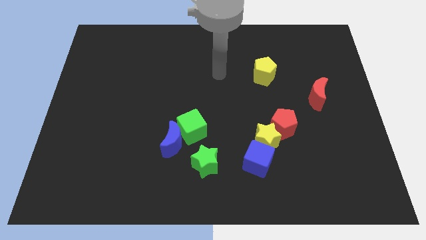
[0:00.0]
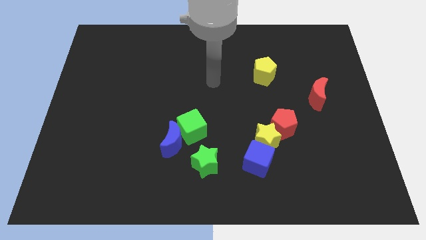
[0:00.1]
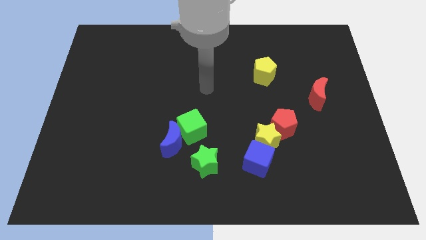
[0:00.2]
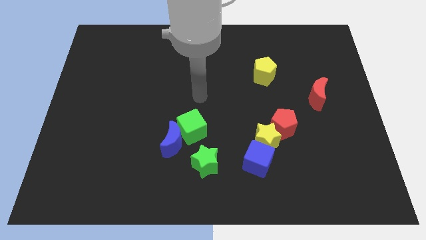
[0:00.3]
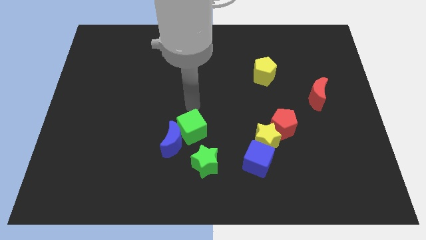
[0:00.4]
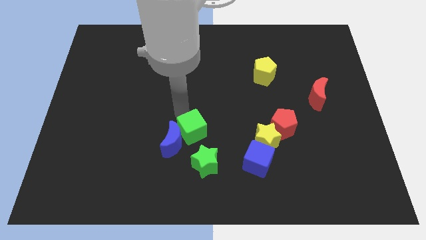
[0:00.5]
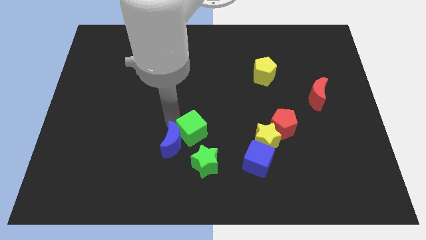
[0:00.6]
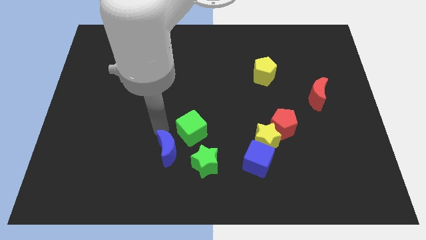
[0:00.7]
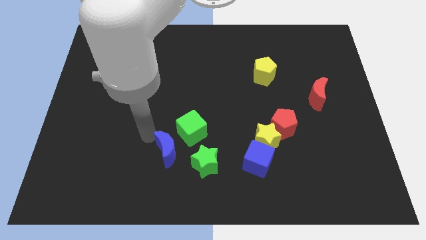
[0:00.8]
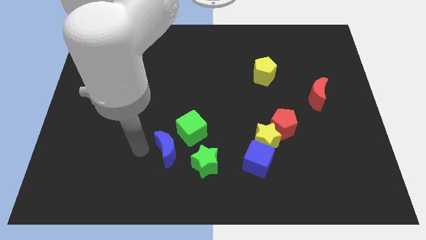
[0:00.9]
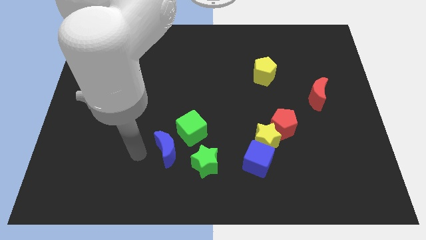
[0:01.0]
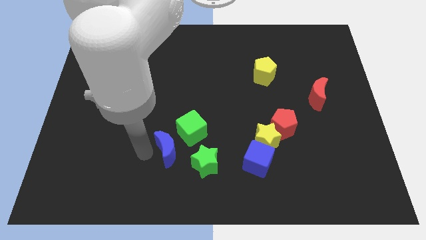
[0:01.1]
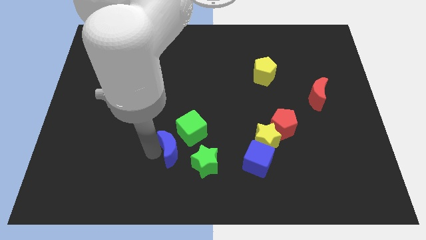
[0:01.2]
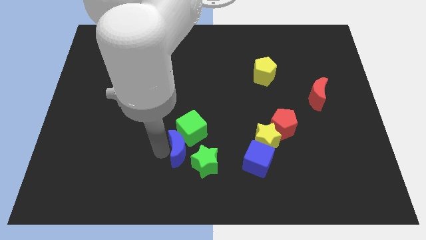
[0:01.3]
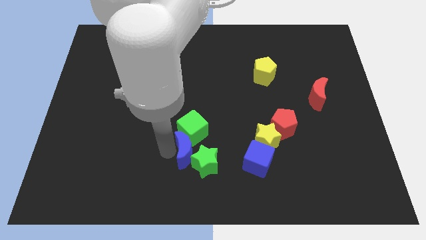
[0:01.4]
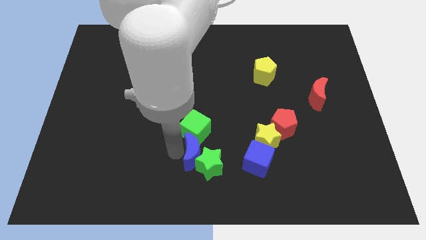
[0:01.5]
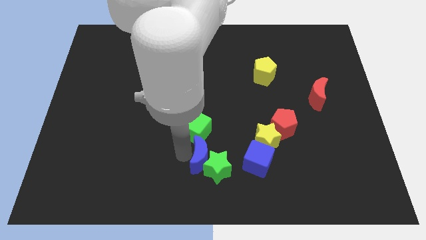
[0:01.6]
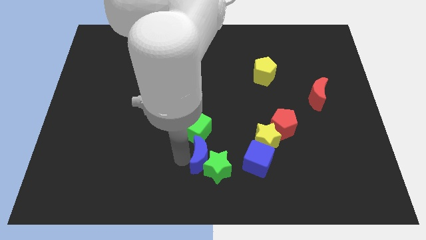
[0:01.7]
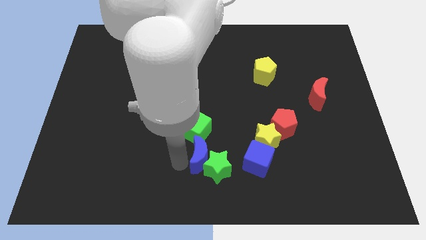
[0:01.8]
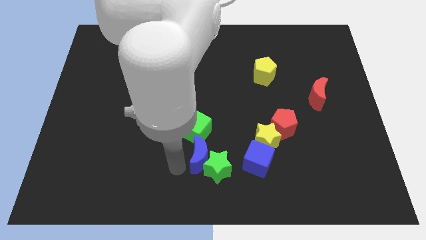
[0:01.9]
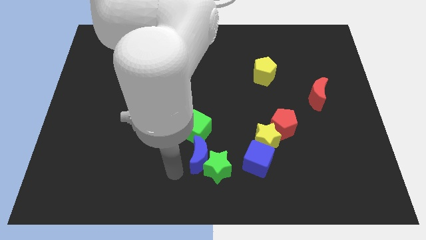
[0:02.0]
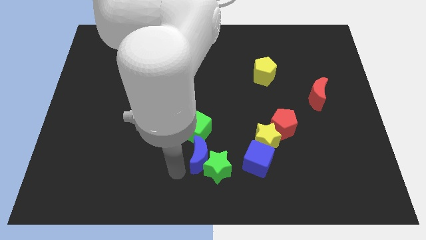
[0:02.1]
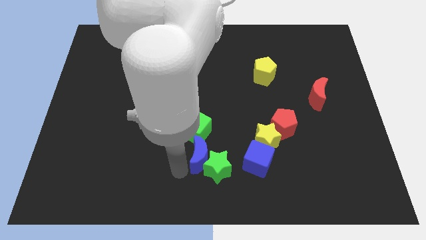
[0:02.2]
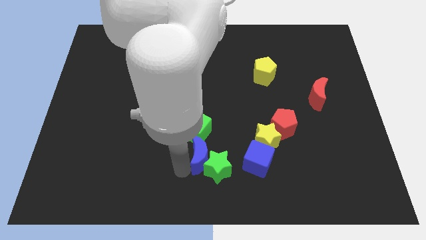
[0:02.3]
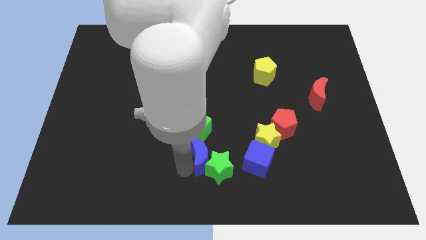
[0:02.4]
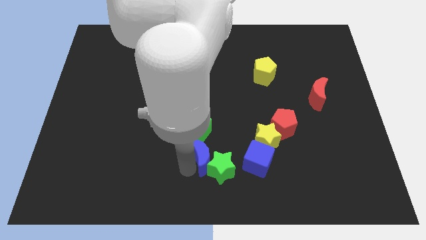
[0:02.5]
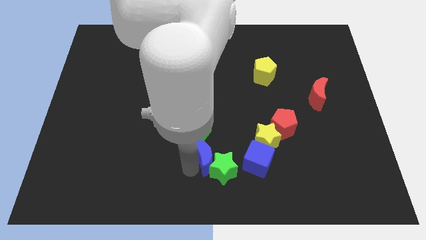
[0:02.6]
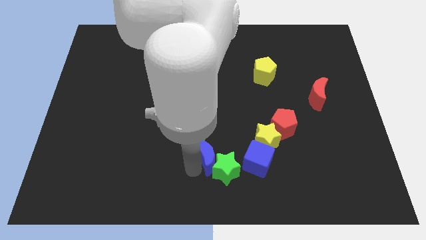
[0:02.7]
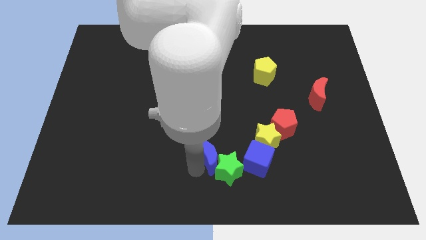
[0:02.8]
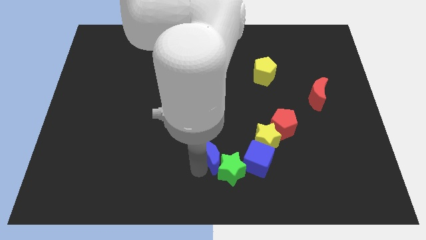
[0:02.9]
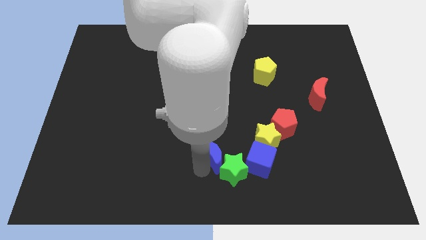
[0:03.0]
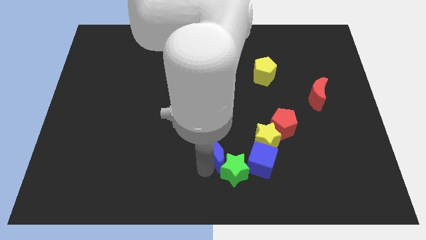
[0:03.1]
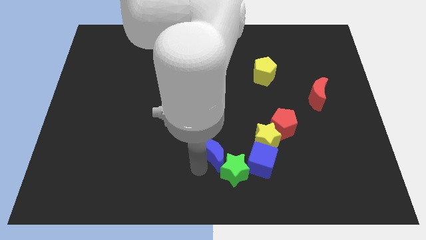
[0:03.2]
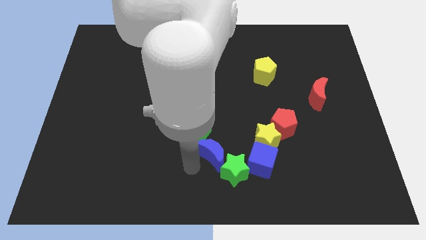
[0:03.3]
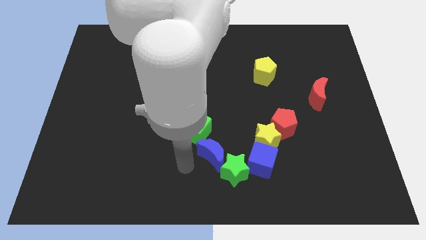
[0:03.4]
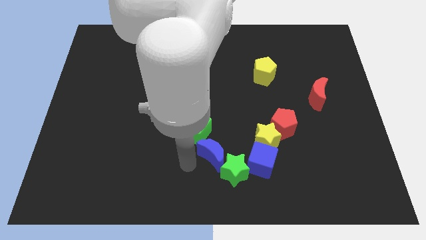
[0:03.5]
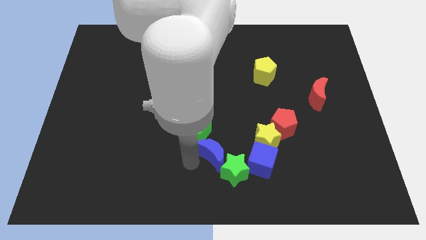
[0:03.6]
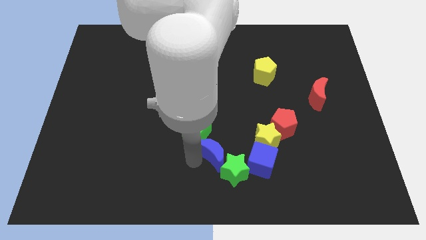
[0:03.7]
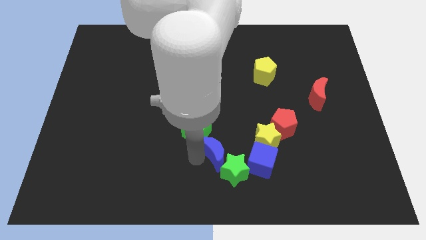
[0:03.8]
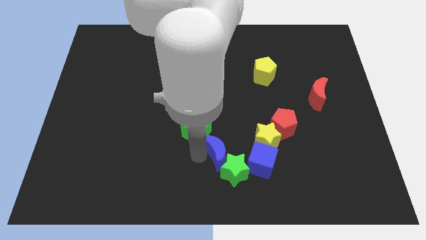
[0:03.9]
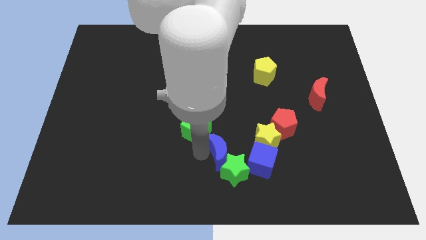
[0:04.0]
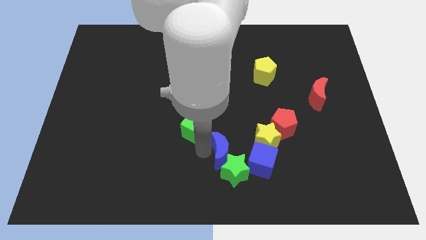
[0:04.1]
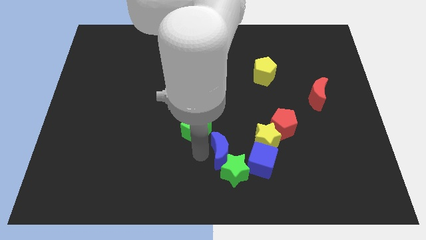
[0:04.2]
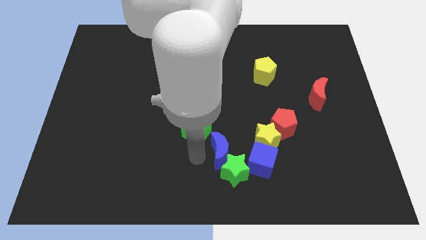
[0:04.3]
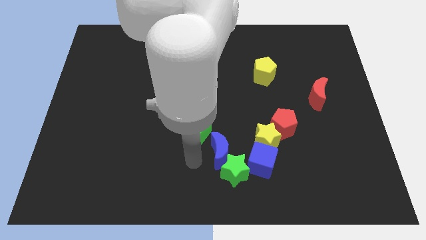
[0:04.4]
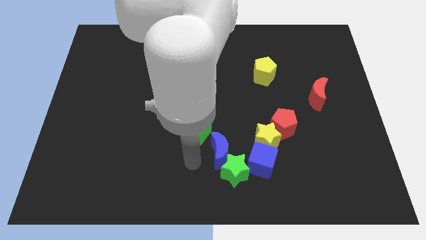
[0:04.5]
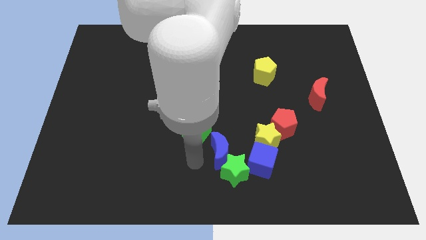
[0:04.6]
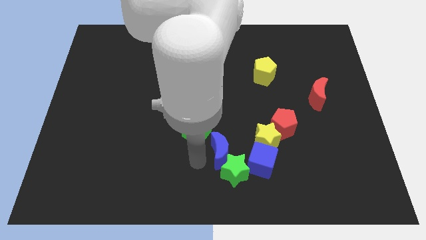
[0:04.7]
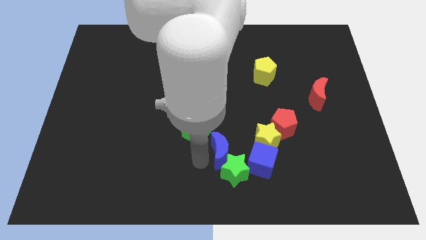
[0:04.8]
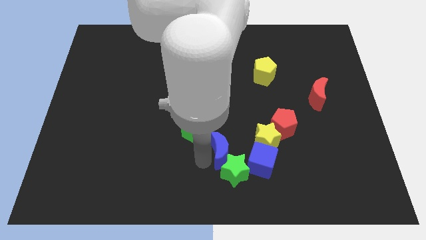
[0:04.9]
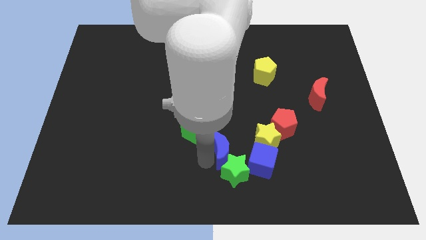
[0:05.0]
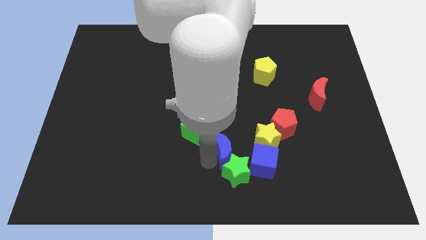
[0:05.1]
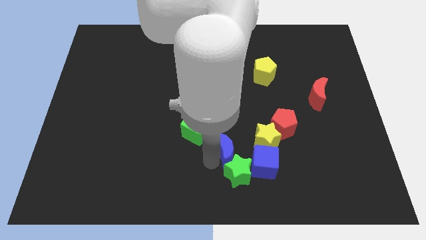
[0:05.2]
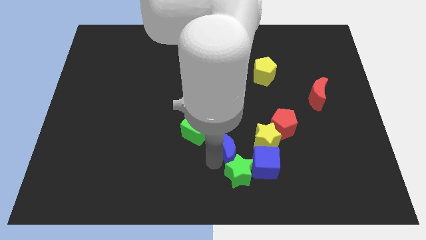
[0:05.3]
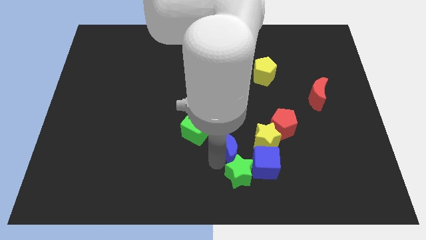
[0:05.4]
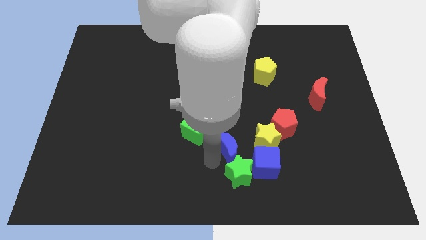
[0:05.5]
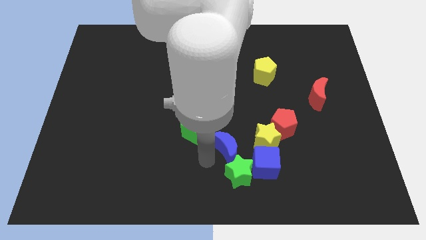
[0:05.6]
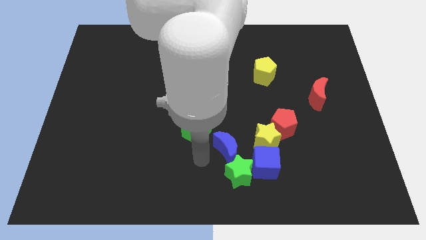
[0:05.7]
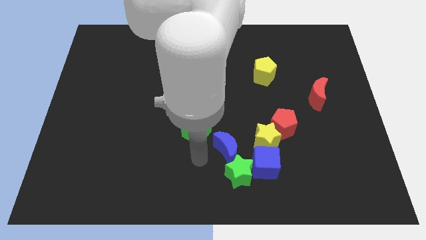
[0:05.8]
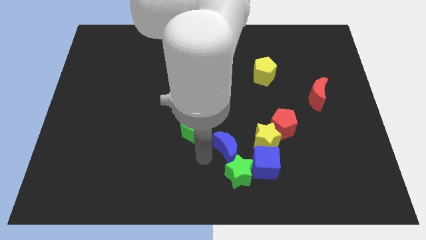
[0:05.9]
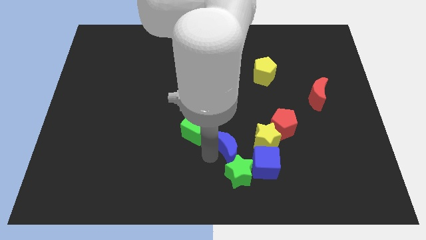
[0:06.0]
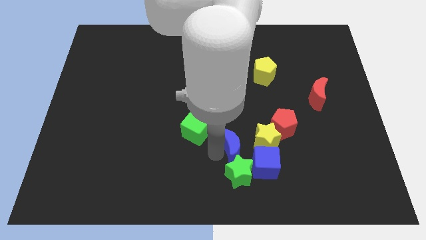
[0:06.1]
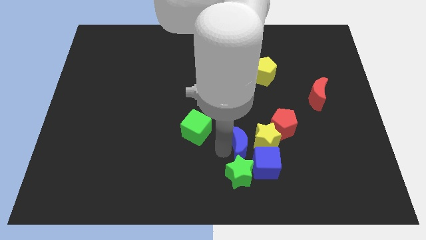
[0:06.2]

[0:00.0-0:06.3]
put the blue moon close to the yellow star

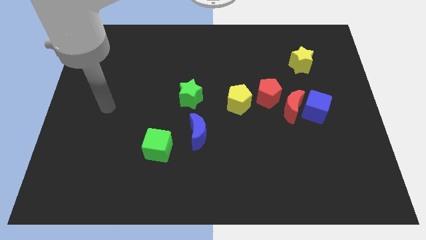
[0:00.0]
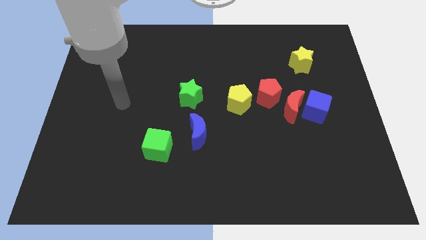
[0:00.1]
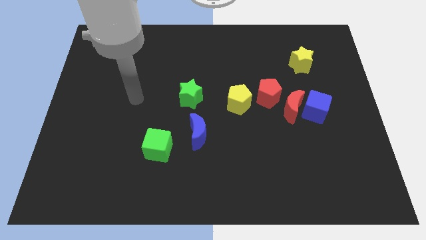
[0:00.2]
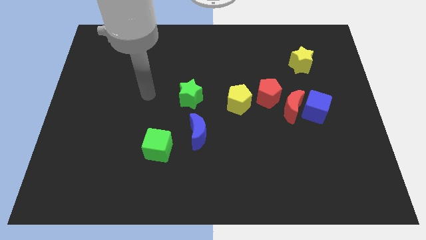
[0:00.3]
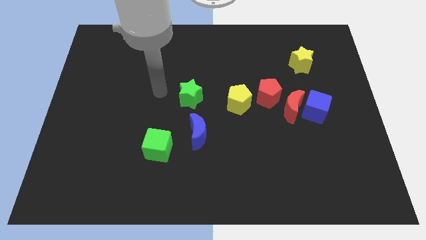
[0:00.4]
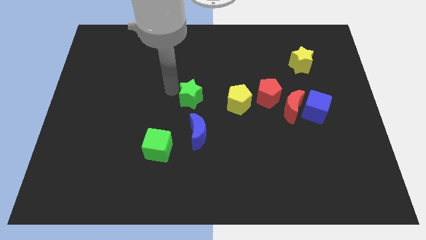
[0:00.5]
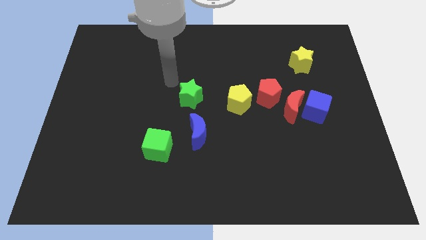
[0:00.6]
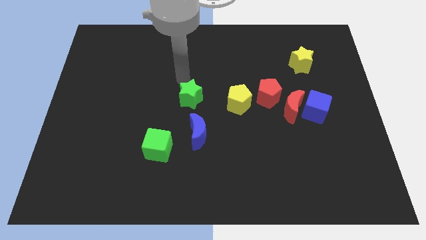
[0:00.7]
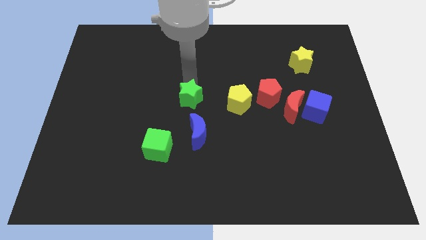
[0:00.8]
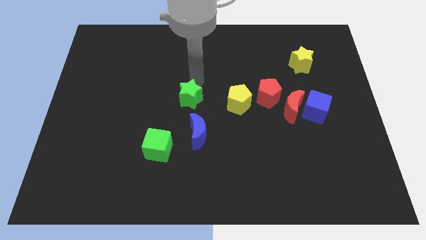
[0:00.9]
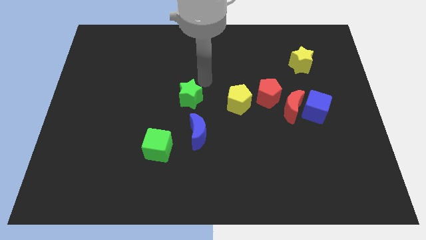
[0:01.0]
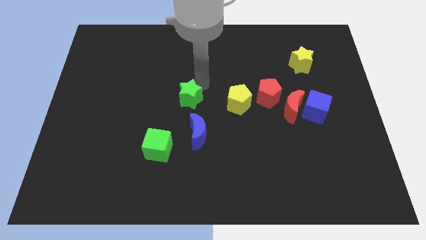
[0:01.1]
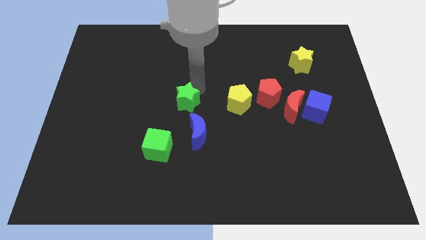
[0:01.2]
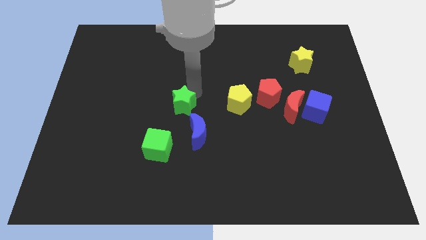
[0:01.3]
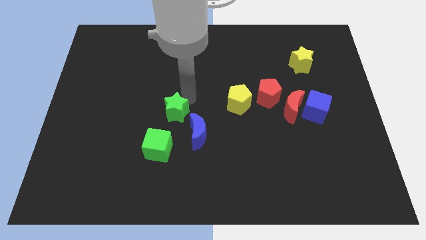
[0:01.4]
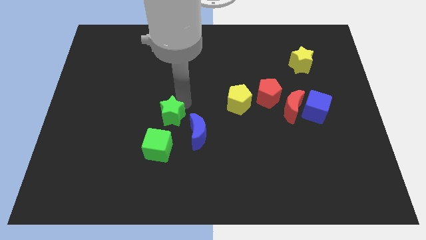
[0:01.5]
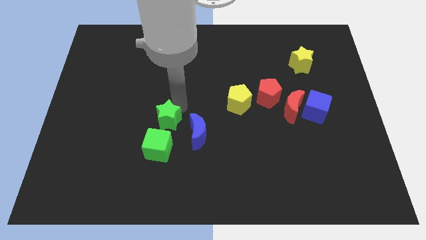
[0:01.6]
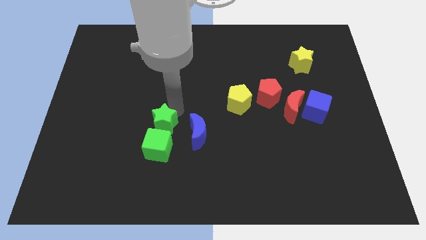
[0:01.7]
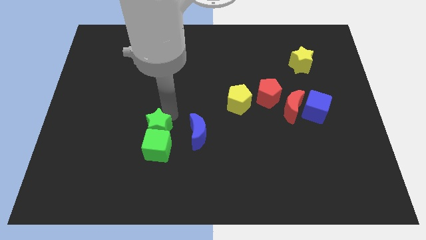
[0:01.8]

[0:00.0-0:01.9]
push the green star next to the green cube
